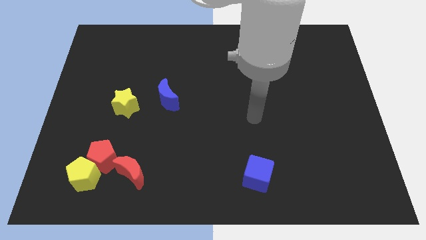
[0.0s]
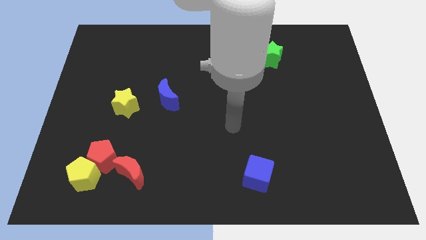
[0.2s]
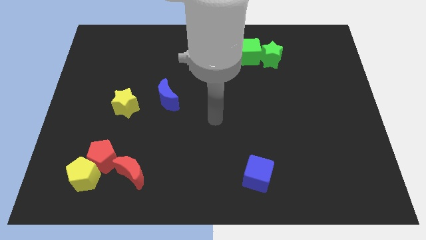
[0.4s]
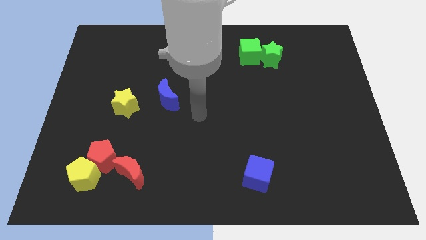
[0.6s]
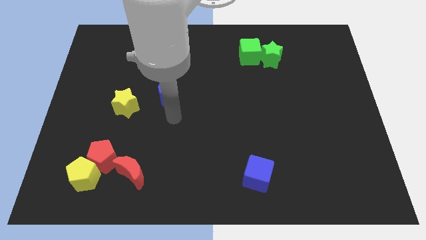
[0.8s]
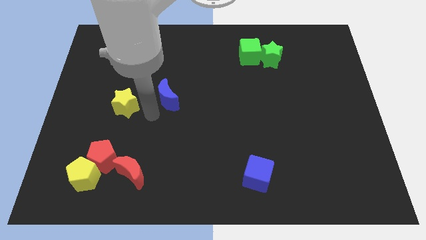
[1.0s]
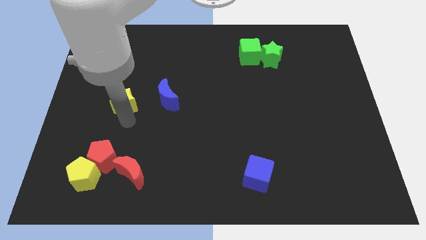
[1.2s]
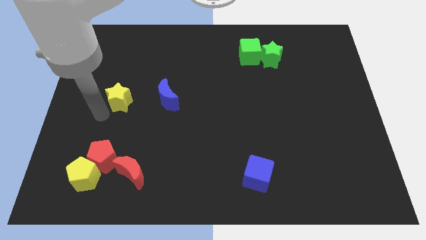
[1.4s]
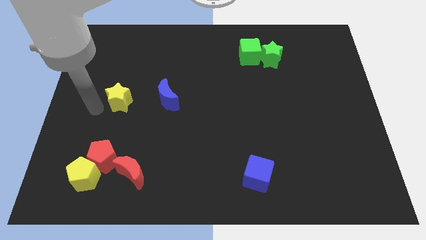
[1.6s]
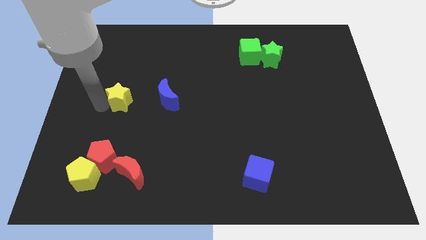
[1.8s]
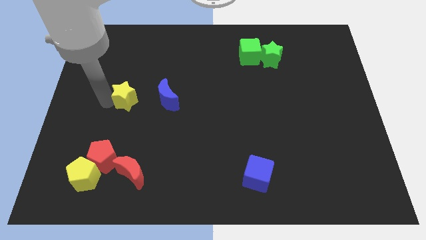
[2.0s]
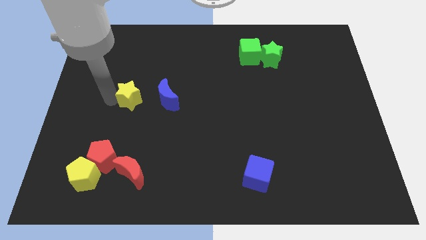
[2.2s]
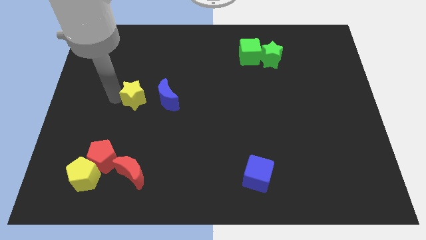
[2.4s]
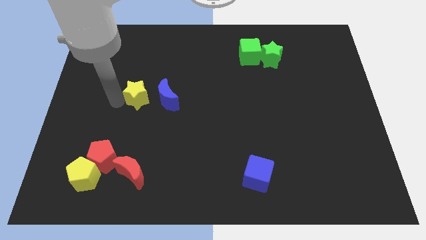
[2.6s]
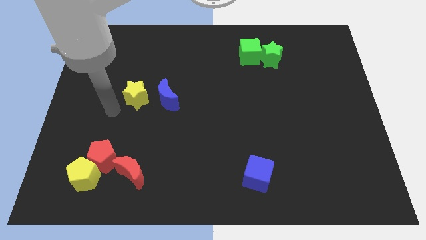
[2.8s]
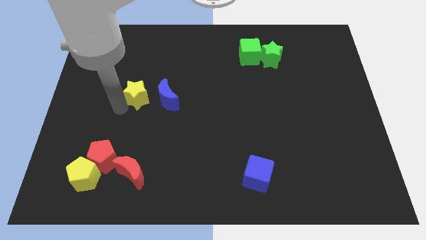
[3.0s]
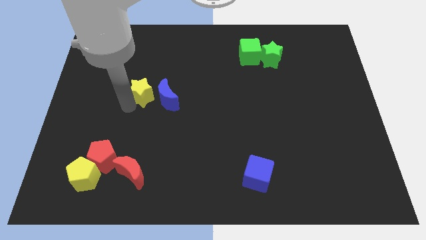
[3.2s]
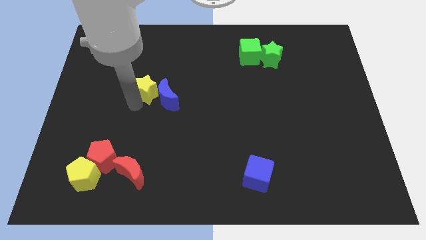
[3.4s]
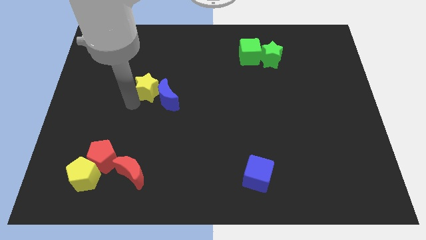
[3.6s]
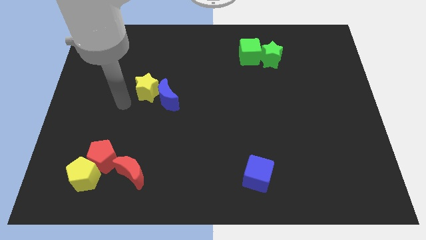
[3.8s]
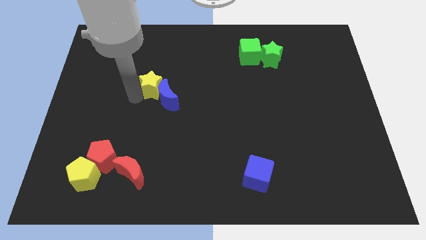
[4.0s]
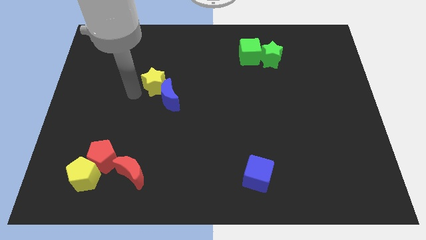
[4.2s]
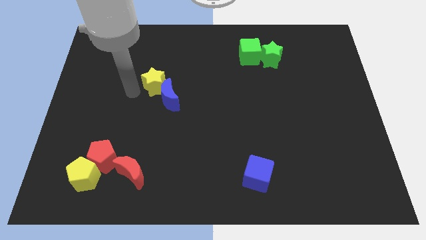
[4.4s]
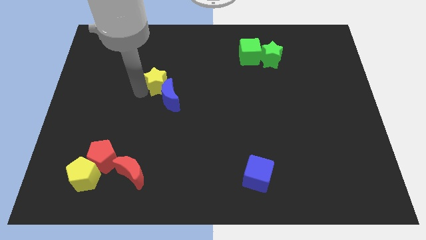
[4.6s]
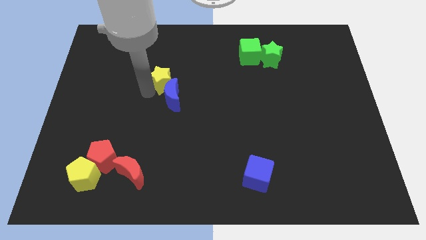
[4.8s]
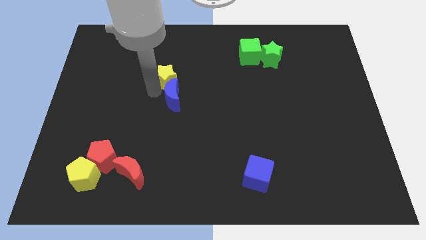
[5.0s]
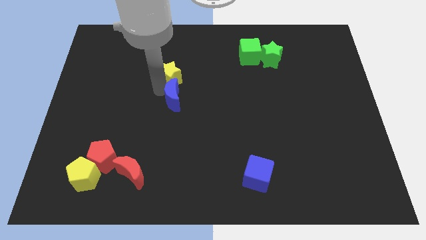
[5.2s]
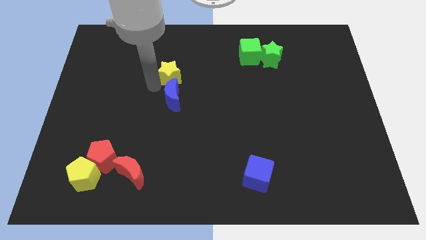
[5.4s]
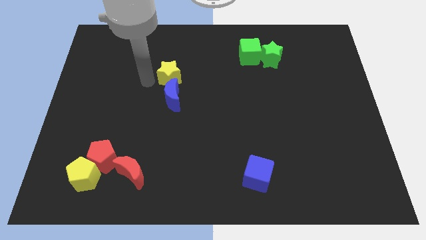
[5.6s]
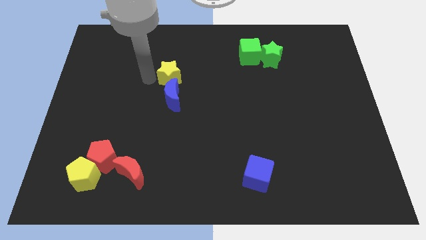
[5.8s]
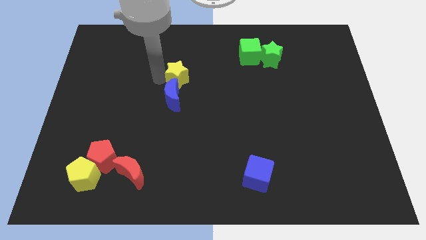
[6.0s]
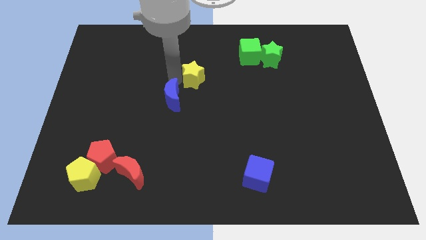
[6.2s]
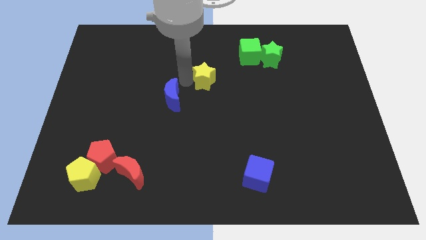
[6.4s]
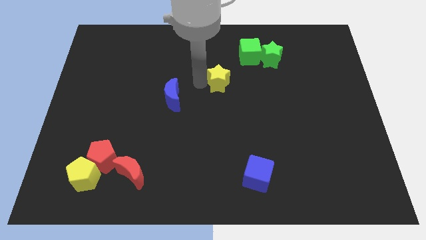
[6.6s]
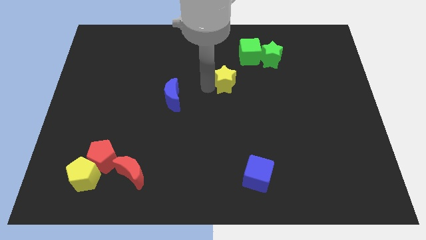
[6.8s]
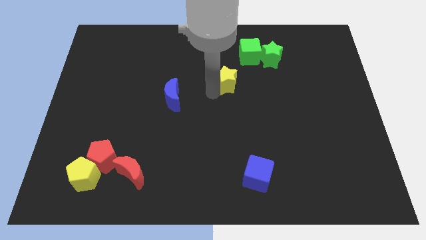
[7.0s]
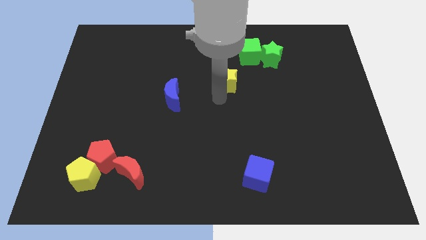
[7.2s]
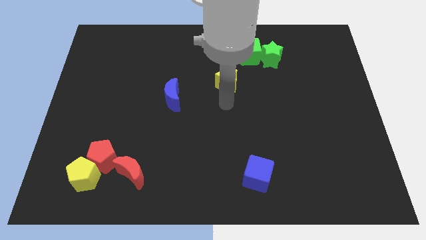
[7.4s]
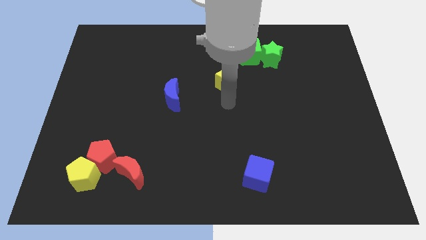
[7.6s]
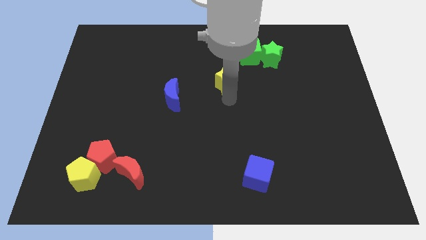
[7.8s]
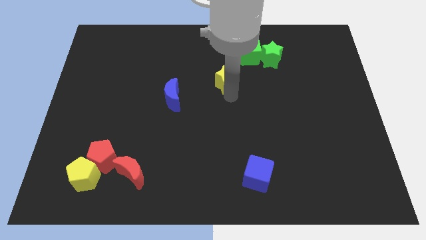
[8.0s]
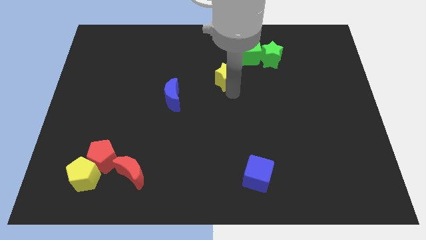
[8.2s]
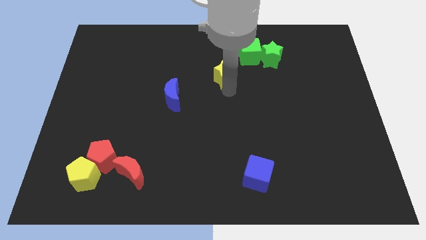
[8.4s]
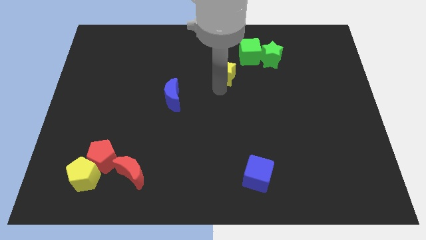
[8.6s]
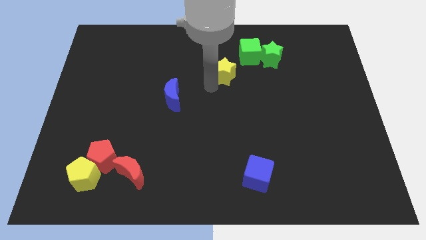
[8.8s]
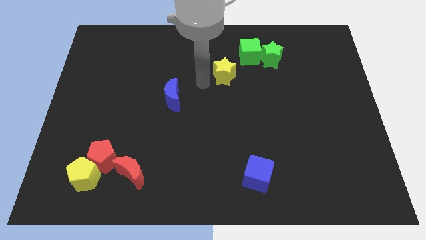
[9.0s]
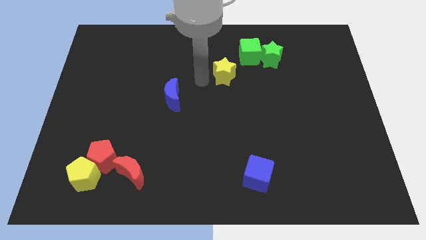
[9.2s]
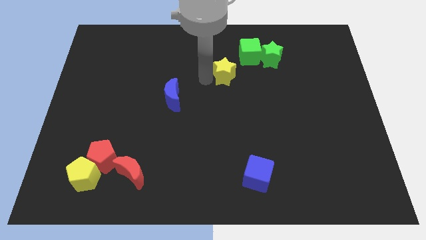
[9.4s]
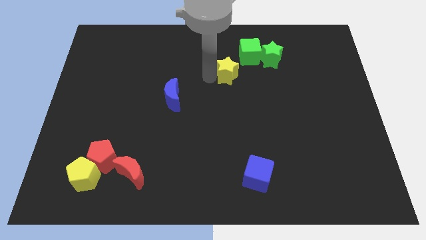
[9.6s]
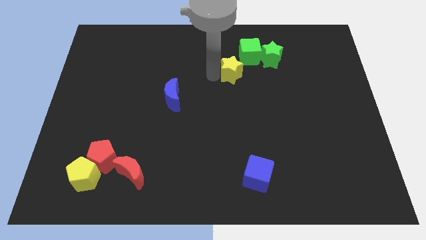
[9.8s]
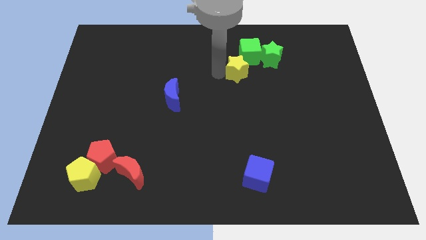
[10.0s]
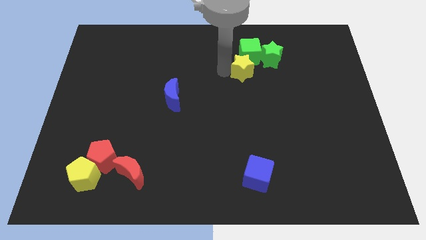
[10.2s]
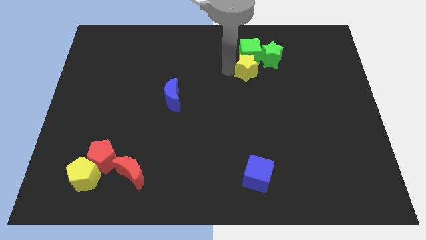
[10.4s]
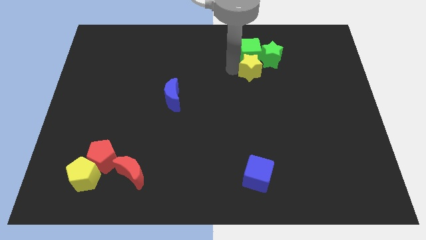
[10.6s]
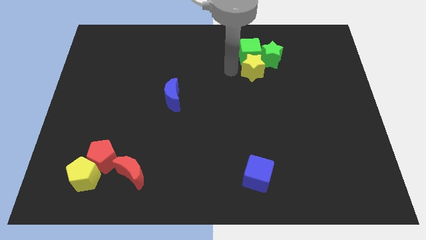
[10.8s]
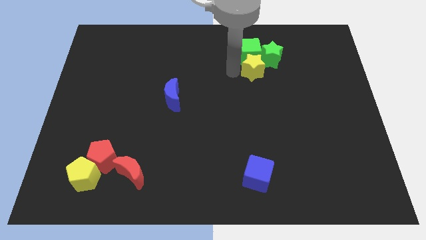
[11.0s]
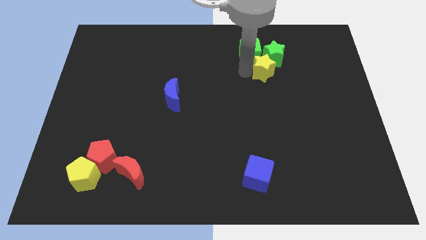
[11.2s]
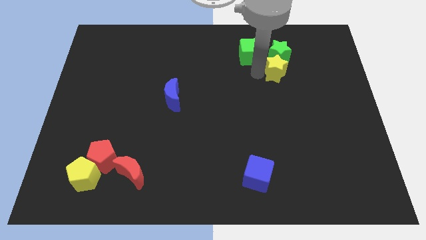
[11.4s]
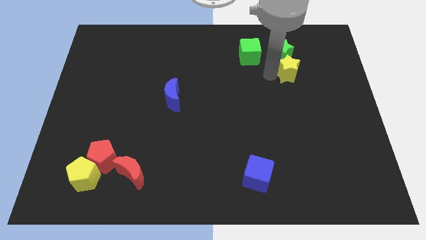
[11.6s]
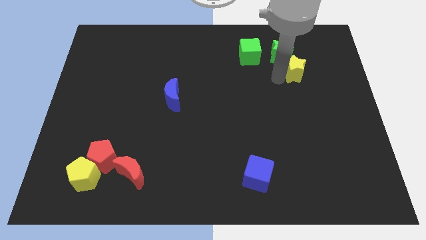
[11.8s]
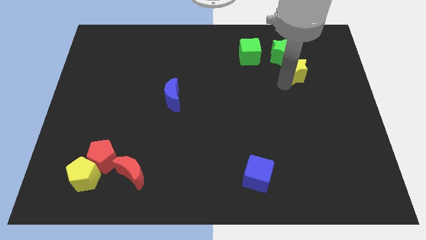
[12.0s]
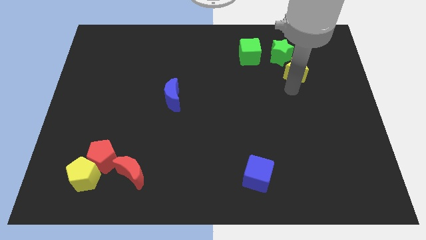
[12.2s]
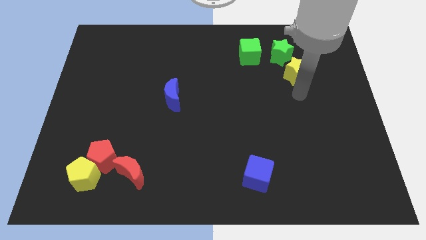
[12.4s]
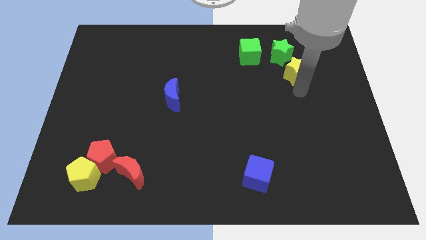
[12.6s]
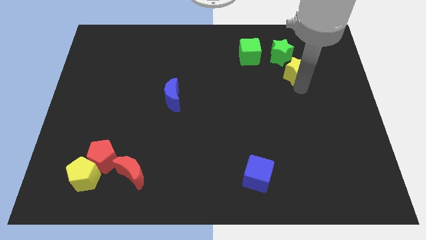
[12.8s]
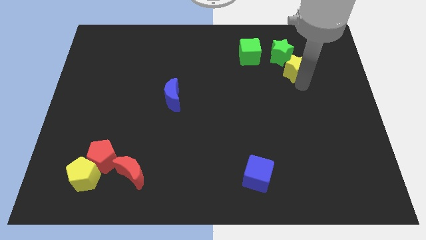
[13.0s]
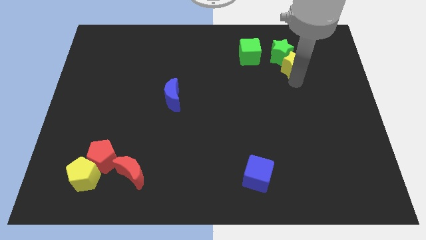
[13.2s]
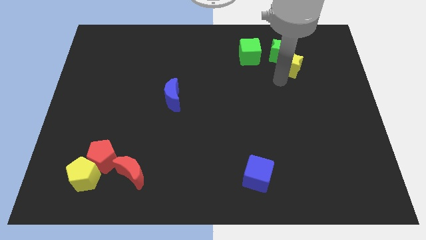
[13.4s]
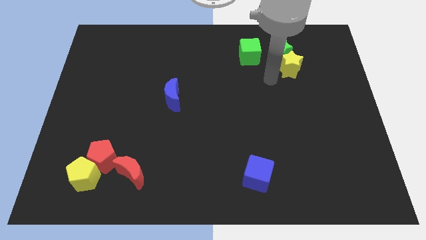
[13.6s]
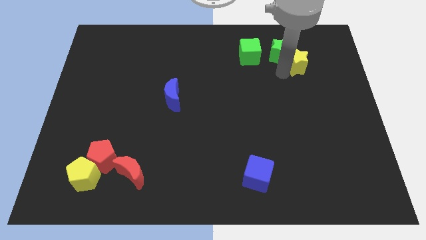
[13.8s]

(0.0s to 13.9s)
push the yellow star just right of the green star

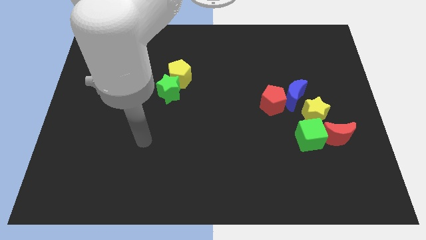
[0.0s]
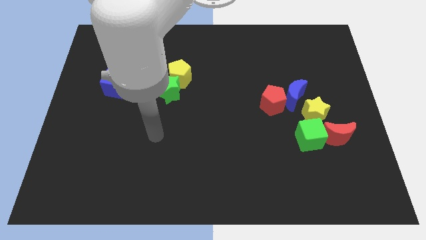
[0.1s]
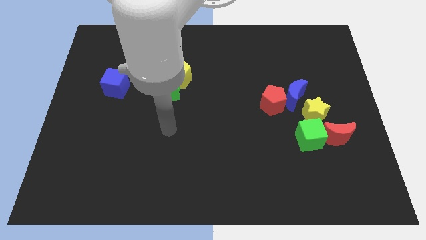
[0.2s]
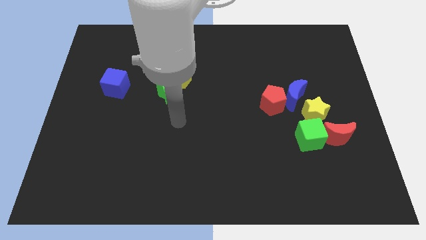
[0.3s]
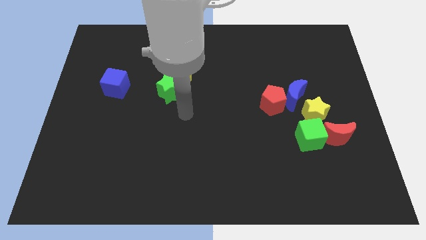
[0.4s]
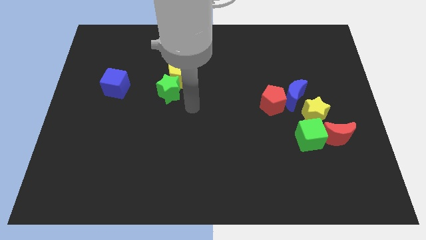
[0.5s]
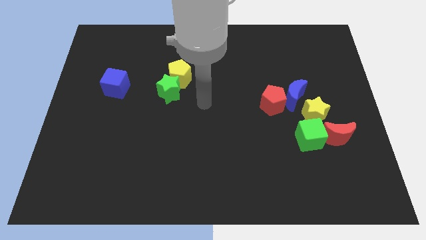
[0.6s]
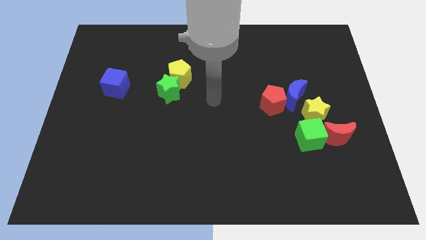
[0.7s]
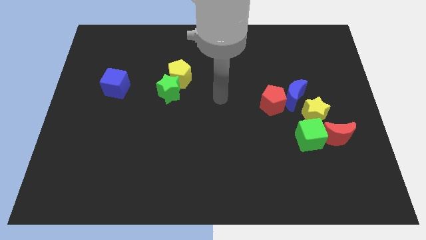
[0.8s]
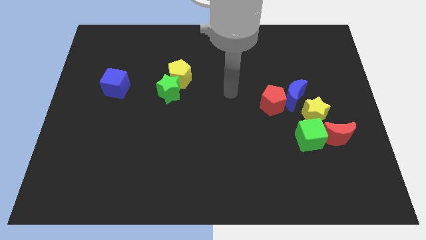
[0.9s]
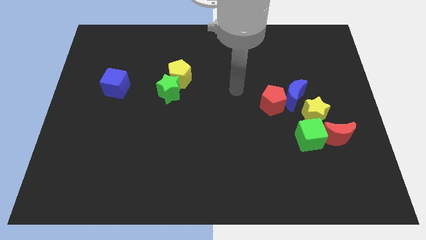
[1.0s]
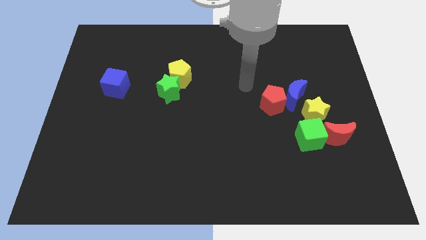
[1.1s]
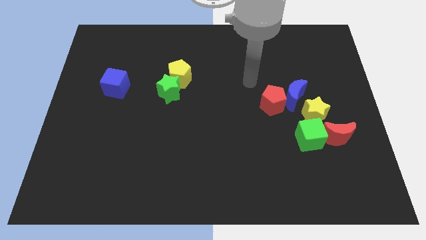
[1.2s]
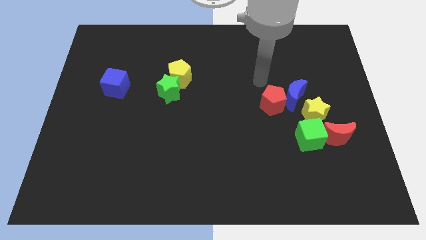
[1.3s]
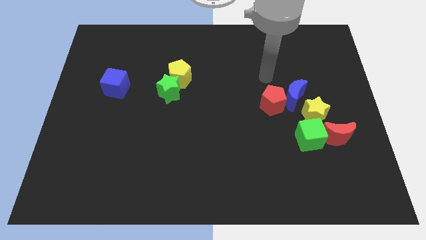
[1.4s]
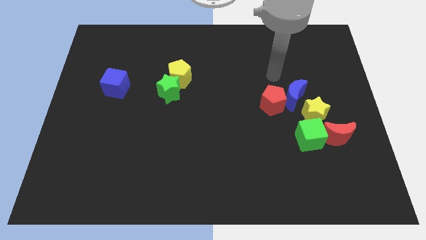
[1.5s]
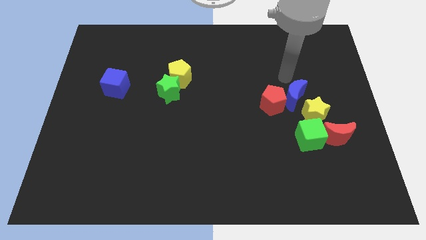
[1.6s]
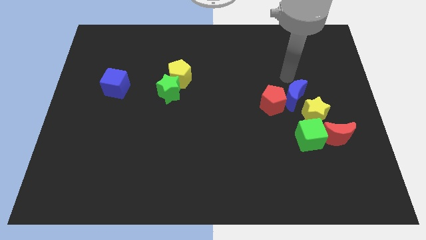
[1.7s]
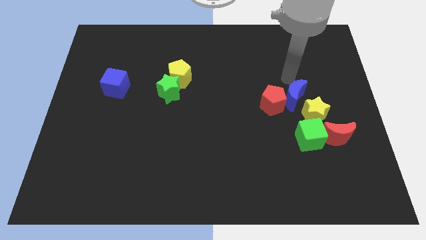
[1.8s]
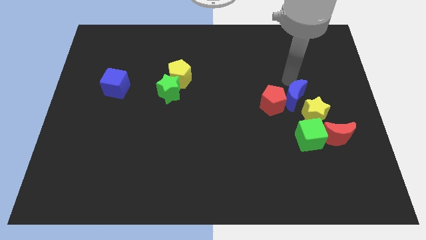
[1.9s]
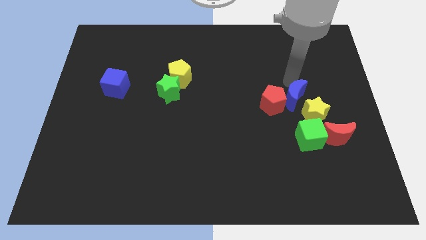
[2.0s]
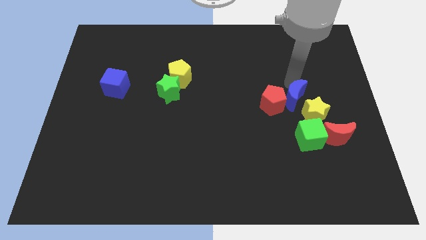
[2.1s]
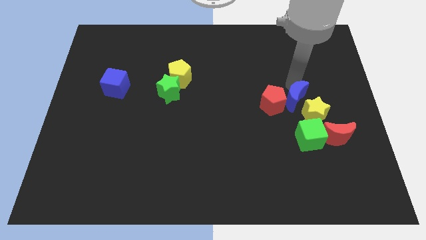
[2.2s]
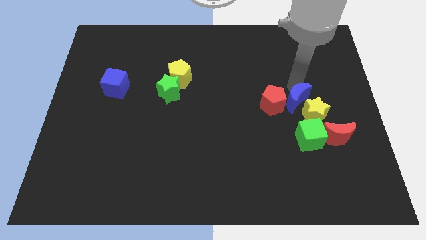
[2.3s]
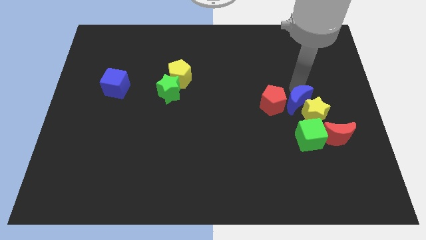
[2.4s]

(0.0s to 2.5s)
put the blue moon to the top left of the red moon
